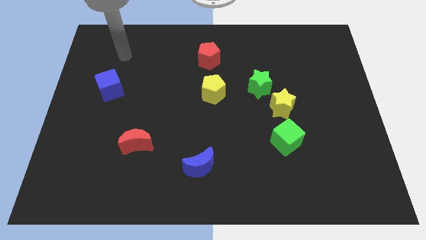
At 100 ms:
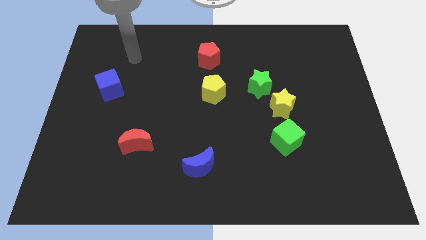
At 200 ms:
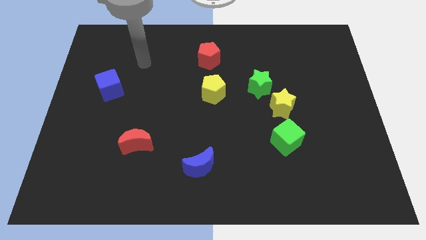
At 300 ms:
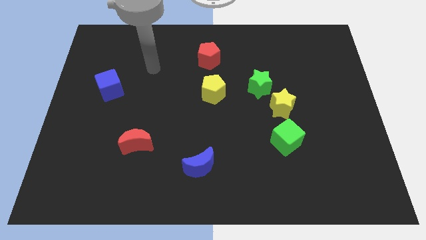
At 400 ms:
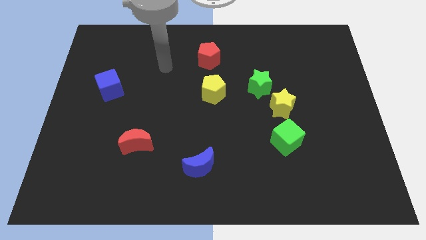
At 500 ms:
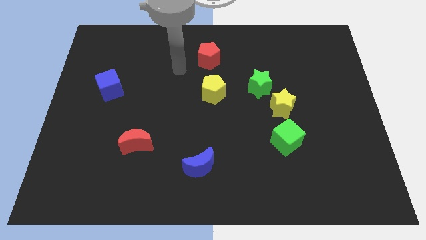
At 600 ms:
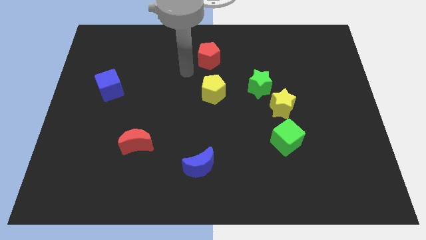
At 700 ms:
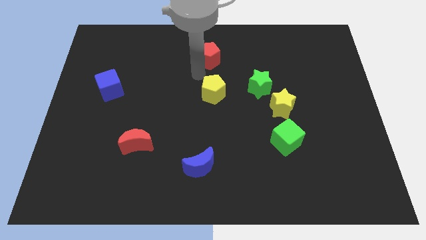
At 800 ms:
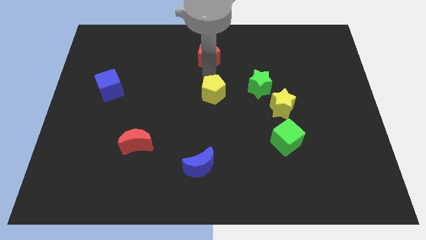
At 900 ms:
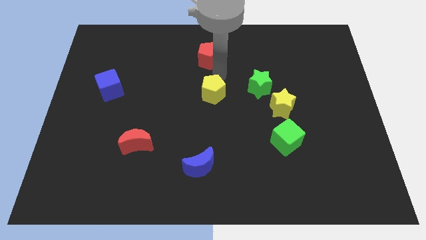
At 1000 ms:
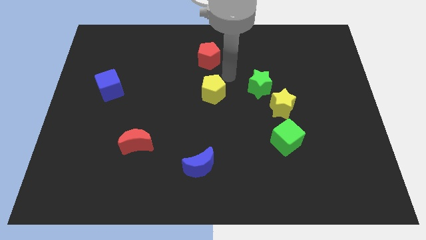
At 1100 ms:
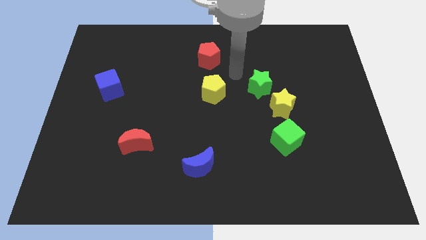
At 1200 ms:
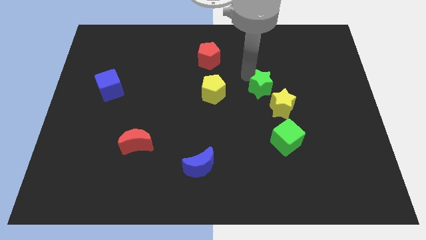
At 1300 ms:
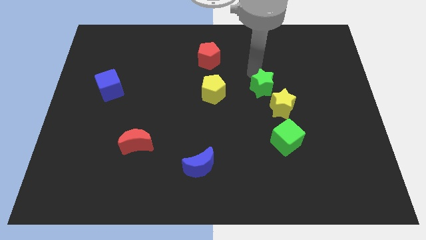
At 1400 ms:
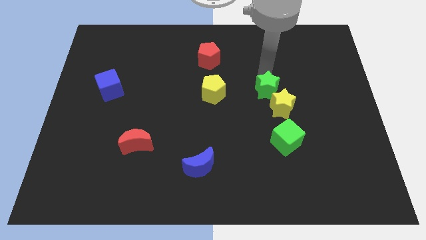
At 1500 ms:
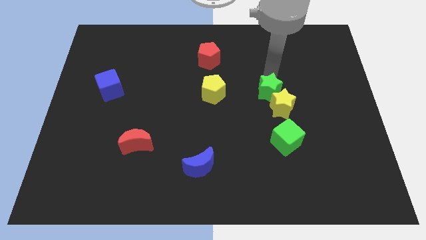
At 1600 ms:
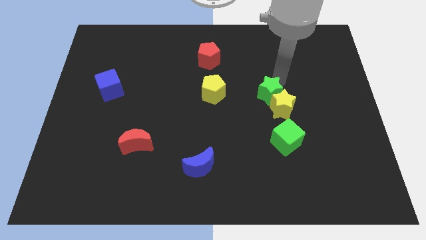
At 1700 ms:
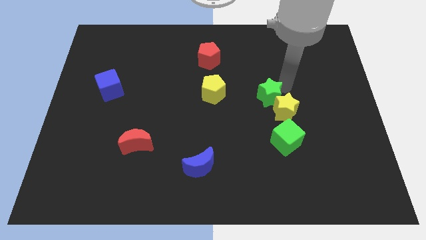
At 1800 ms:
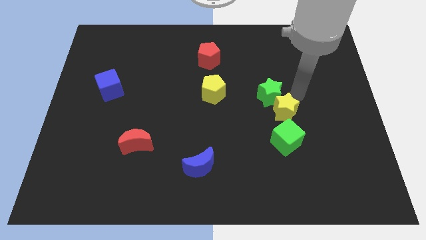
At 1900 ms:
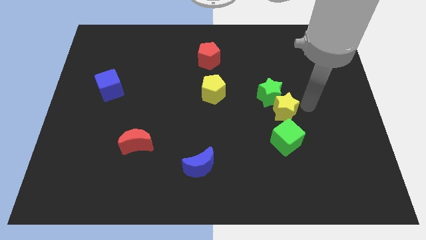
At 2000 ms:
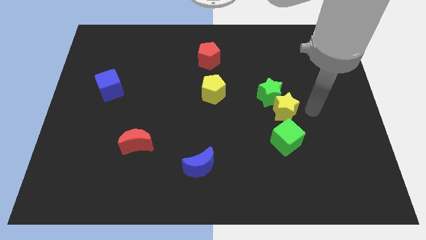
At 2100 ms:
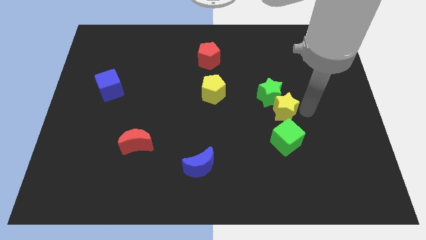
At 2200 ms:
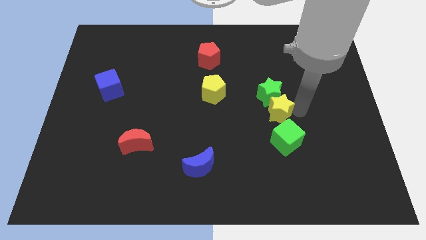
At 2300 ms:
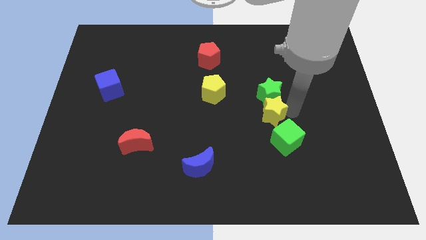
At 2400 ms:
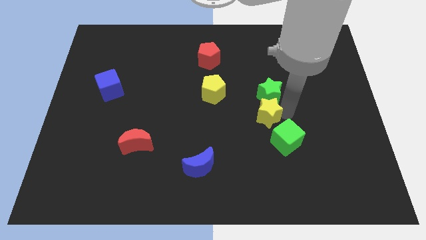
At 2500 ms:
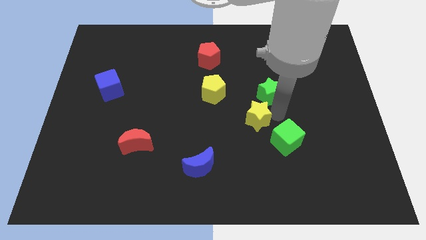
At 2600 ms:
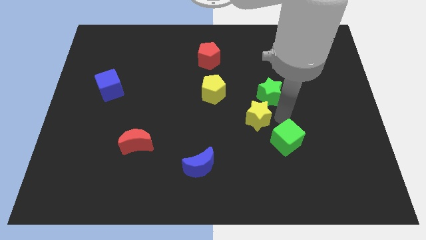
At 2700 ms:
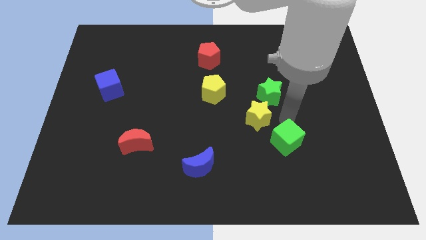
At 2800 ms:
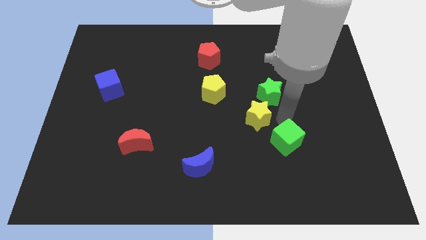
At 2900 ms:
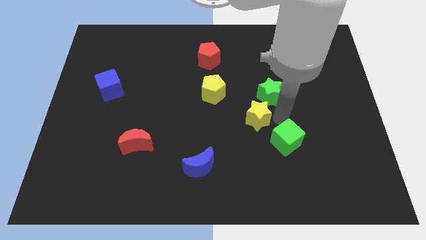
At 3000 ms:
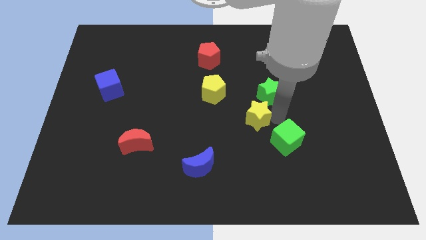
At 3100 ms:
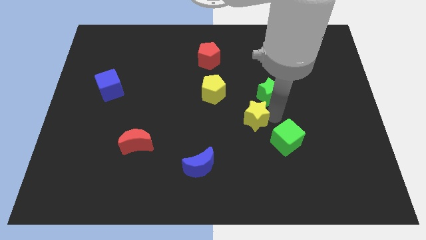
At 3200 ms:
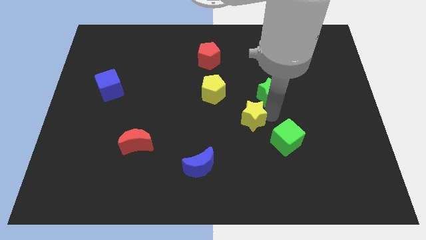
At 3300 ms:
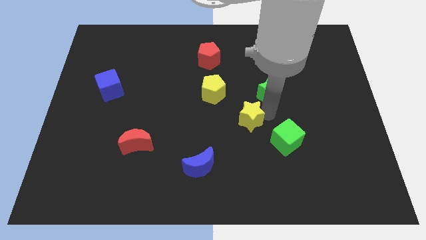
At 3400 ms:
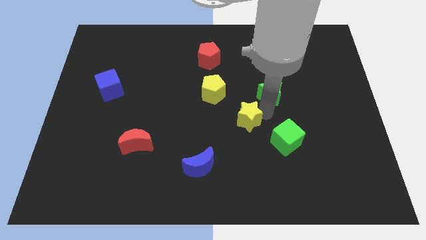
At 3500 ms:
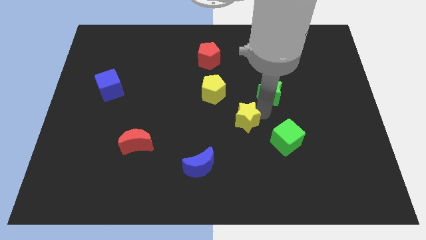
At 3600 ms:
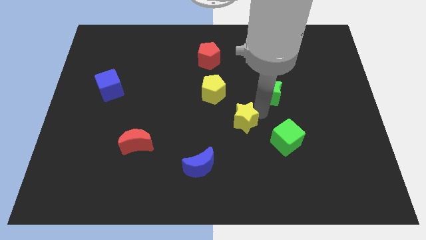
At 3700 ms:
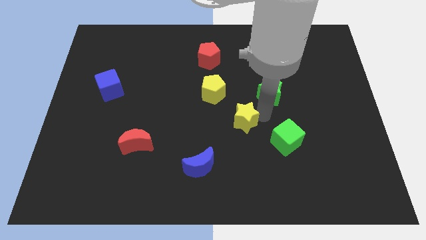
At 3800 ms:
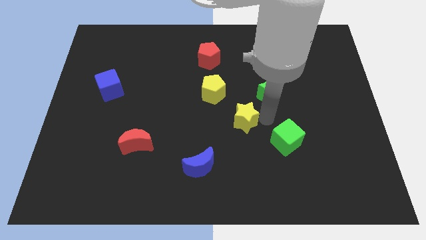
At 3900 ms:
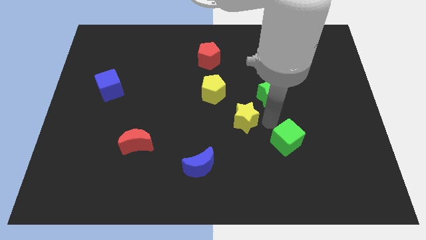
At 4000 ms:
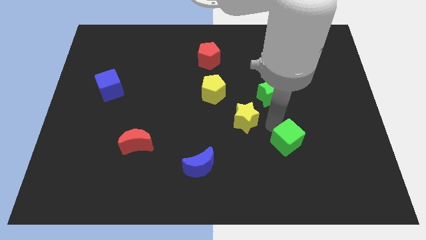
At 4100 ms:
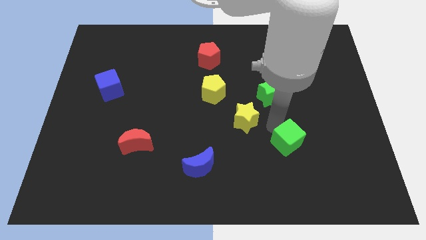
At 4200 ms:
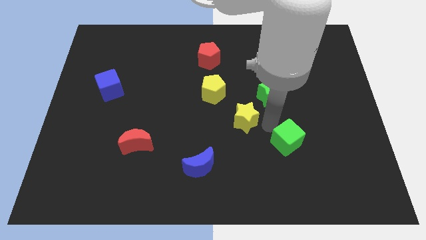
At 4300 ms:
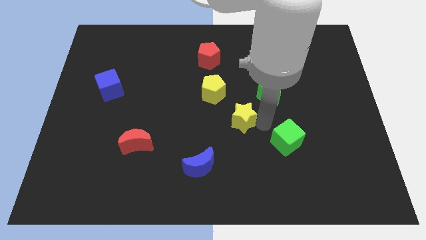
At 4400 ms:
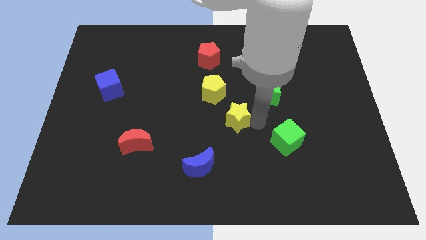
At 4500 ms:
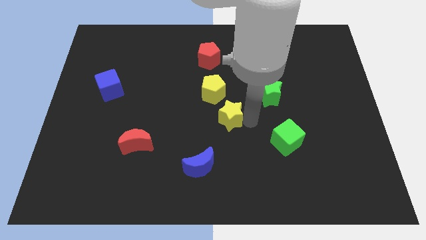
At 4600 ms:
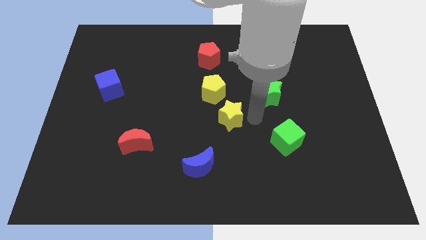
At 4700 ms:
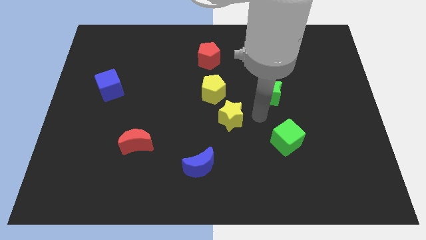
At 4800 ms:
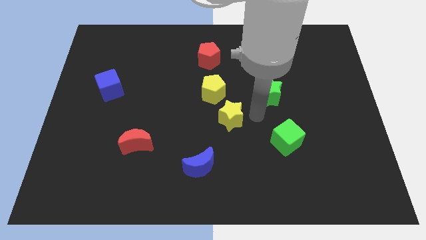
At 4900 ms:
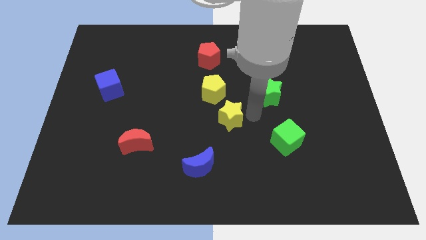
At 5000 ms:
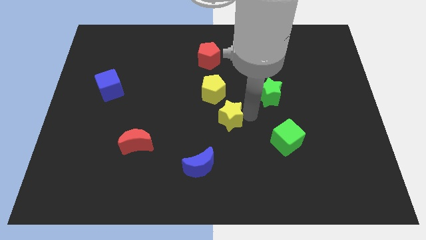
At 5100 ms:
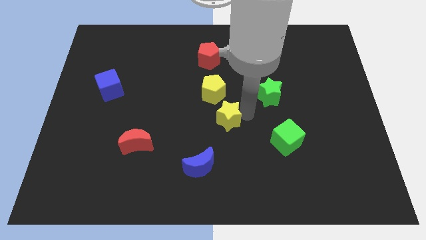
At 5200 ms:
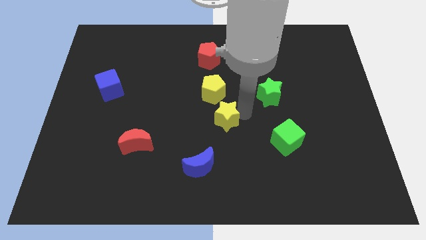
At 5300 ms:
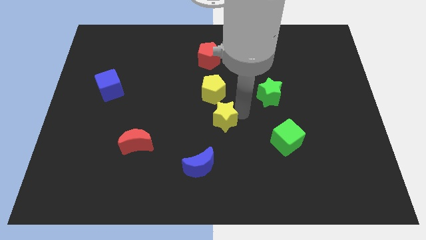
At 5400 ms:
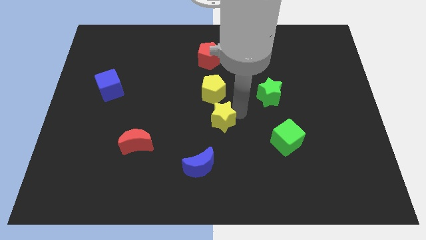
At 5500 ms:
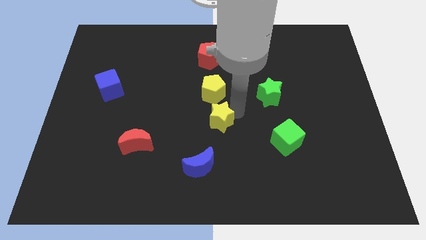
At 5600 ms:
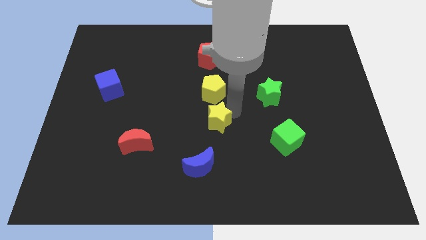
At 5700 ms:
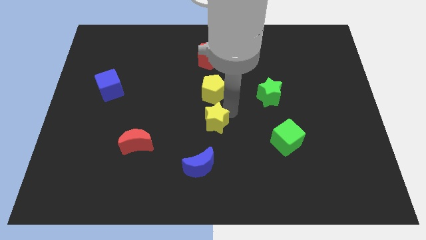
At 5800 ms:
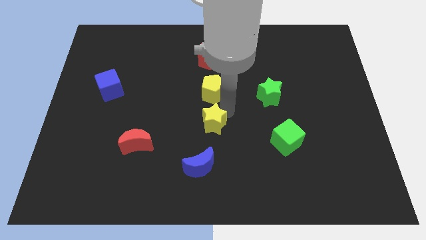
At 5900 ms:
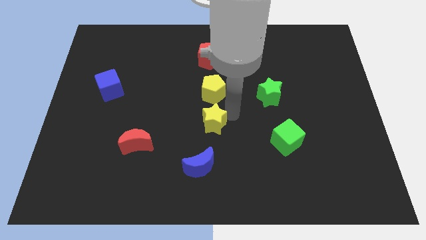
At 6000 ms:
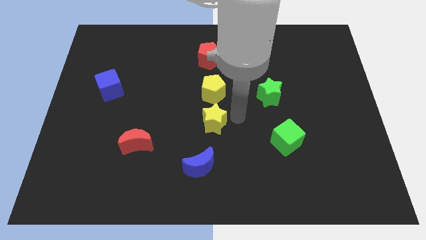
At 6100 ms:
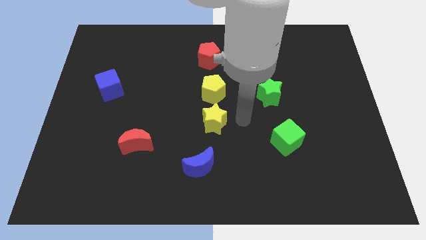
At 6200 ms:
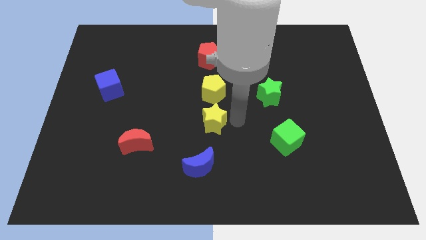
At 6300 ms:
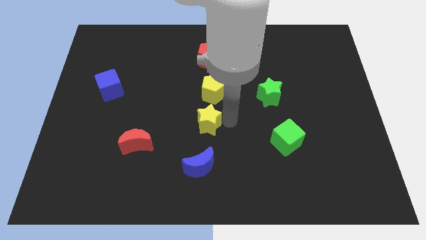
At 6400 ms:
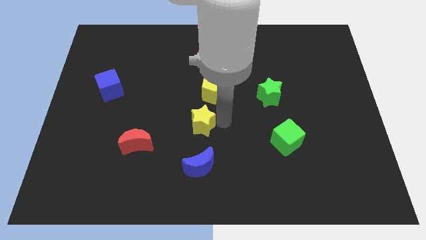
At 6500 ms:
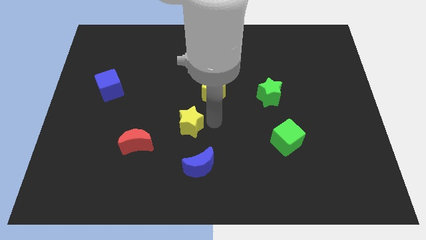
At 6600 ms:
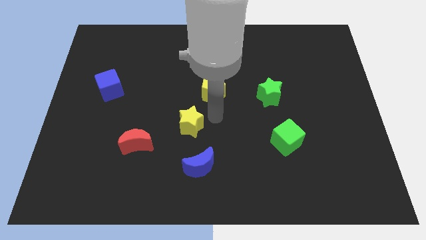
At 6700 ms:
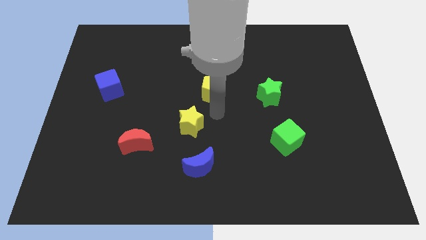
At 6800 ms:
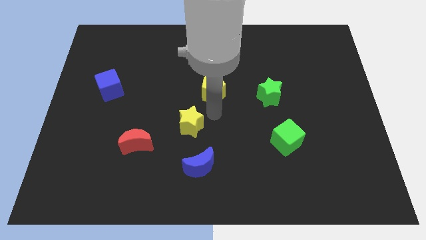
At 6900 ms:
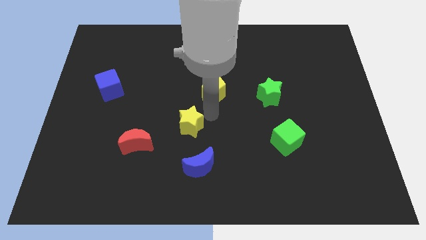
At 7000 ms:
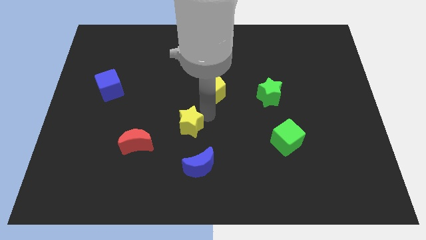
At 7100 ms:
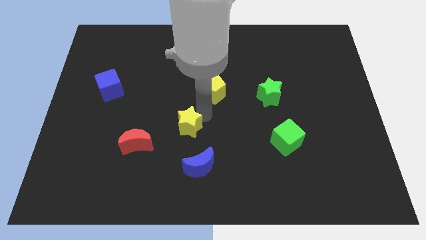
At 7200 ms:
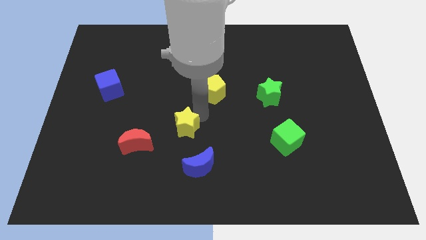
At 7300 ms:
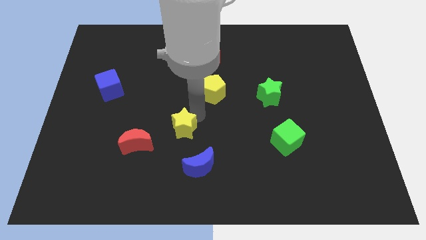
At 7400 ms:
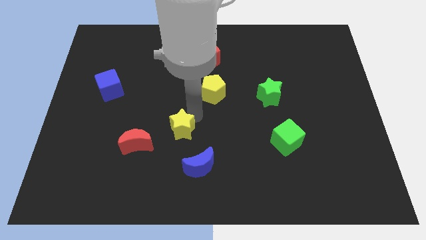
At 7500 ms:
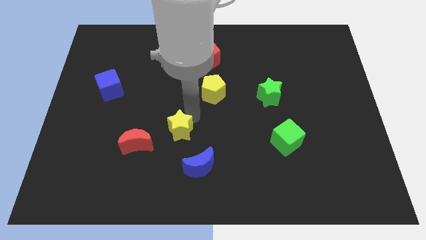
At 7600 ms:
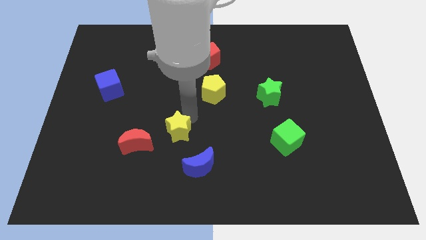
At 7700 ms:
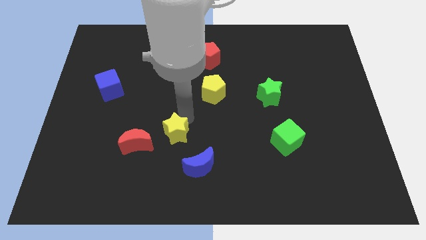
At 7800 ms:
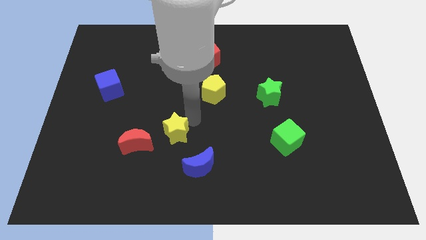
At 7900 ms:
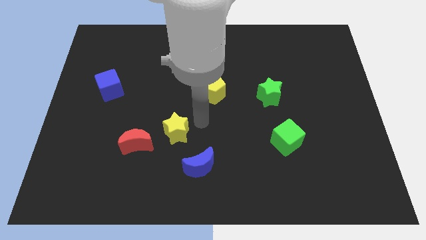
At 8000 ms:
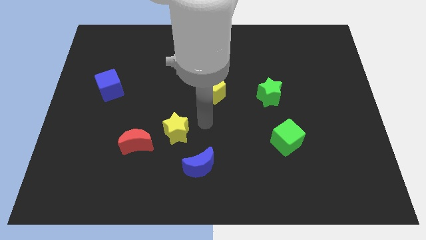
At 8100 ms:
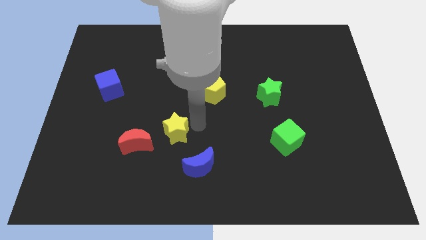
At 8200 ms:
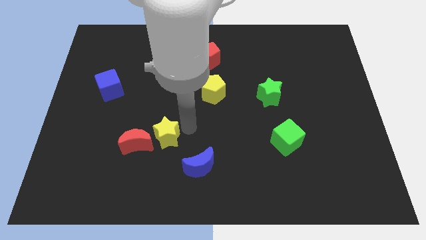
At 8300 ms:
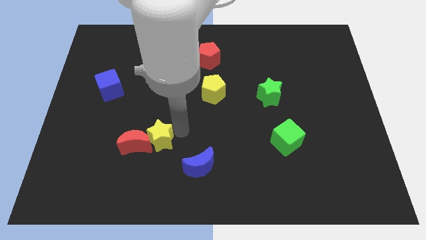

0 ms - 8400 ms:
put the yellow star close to the red moon
